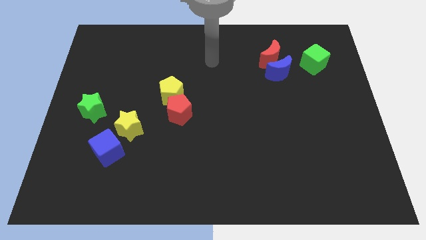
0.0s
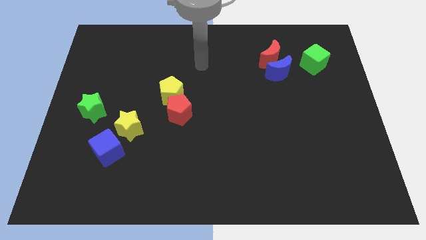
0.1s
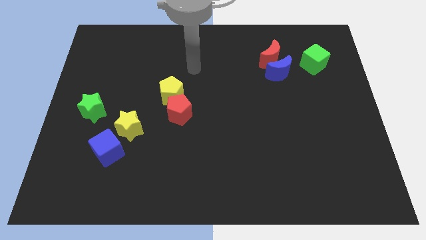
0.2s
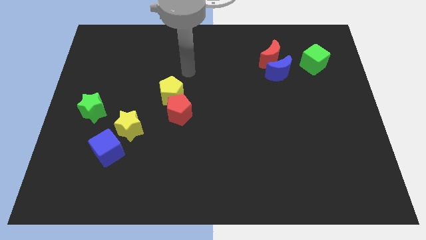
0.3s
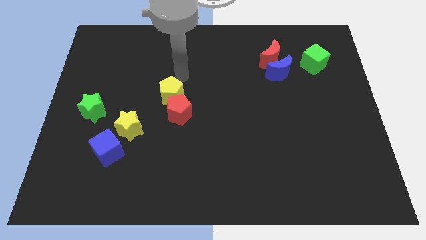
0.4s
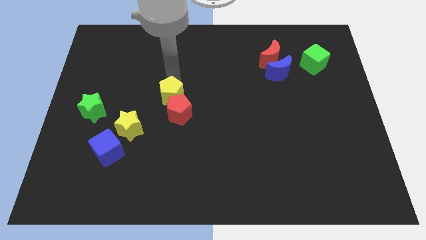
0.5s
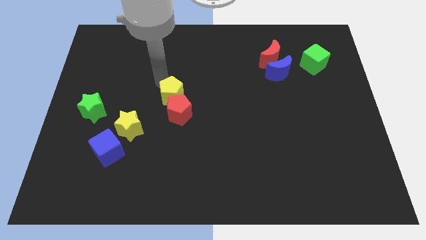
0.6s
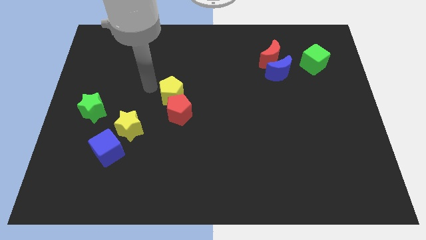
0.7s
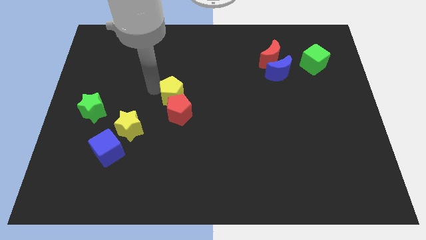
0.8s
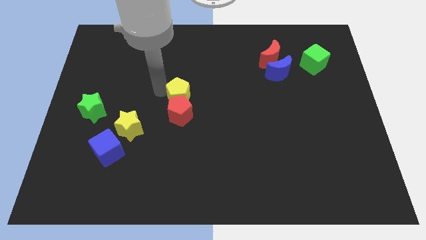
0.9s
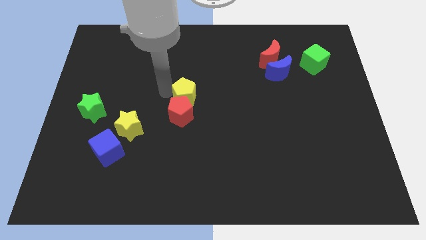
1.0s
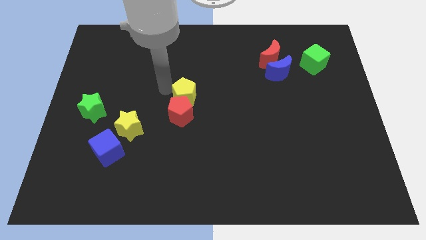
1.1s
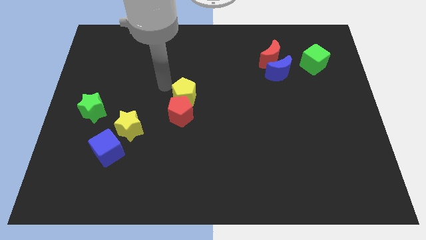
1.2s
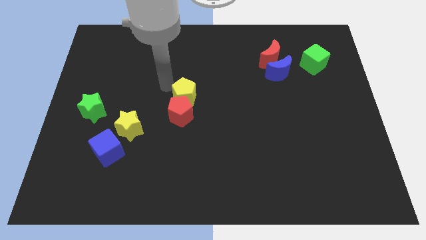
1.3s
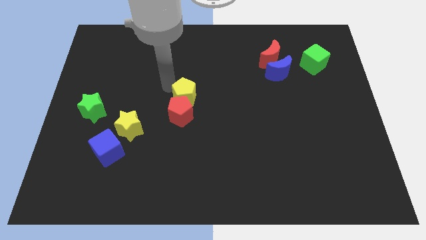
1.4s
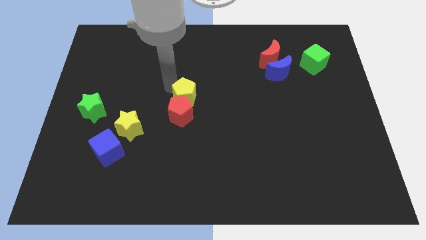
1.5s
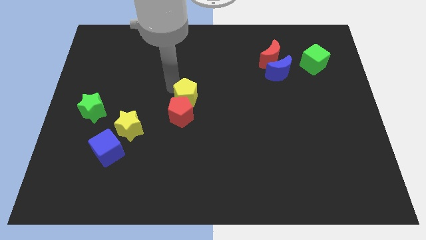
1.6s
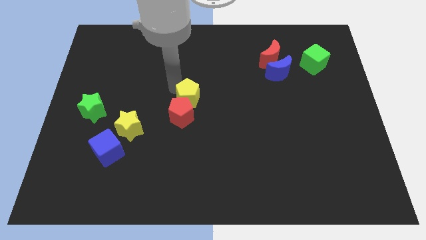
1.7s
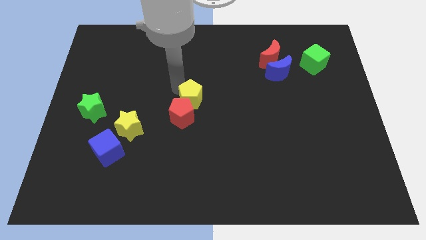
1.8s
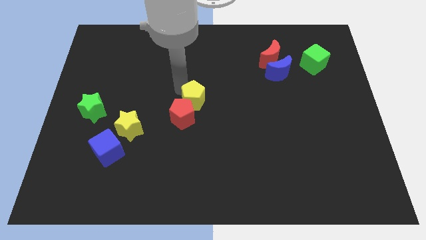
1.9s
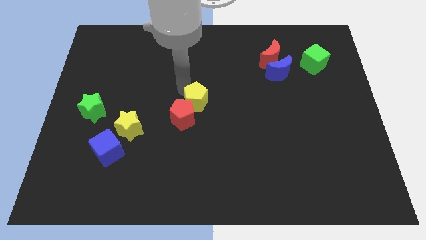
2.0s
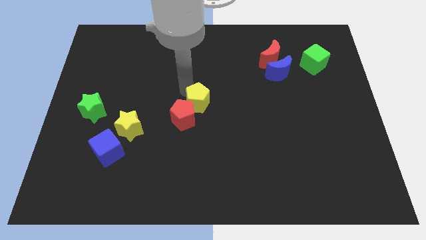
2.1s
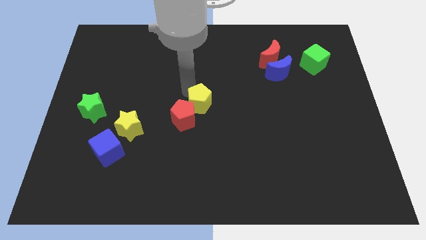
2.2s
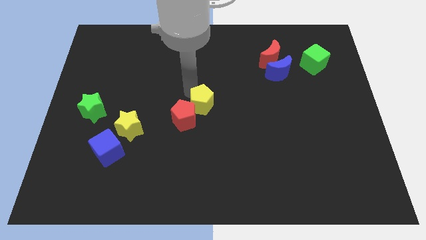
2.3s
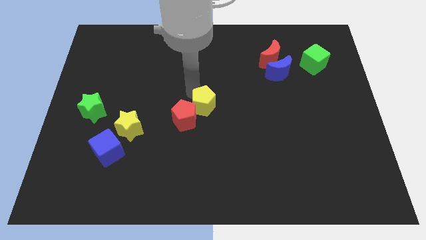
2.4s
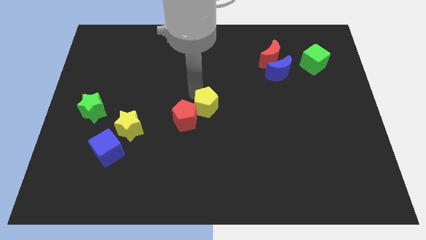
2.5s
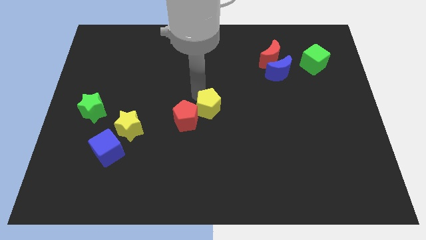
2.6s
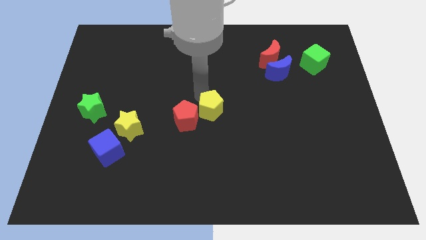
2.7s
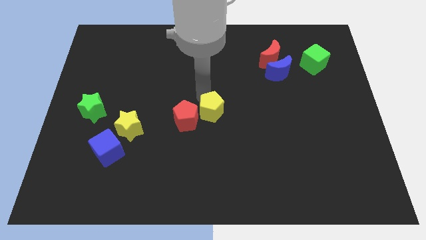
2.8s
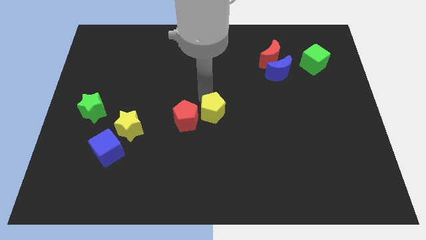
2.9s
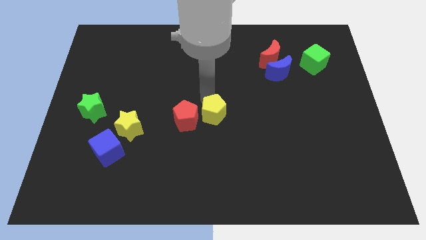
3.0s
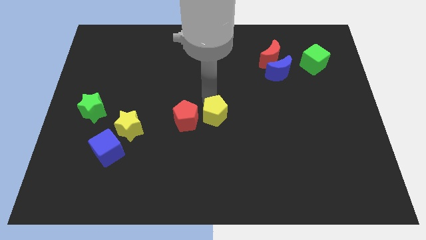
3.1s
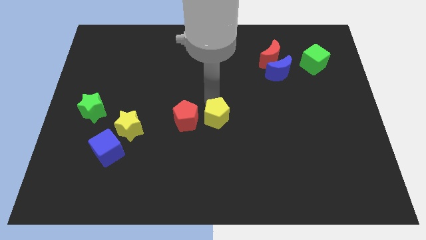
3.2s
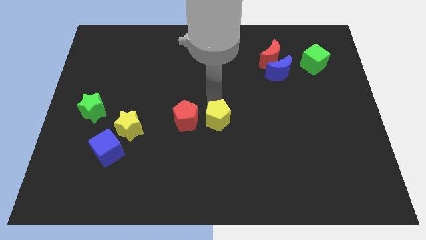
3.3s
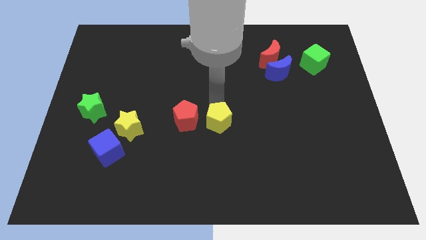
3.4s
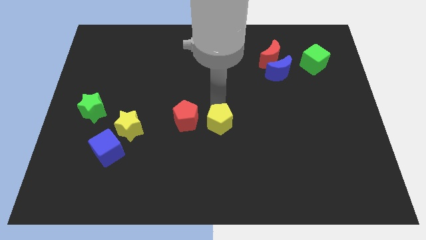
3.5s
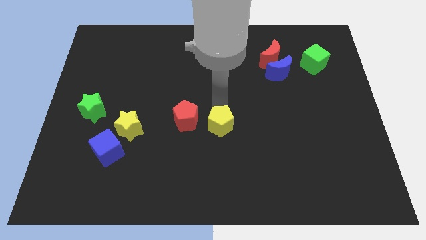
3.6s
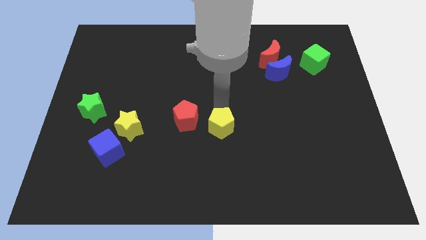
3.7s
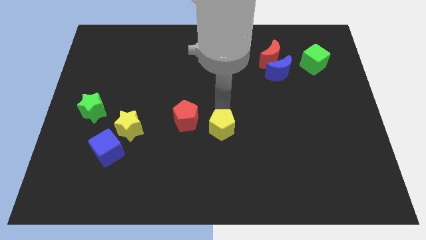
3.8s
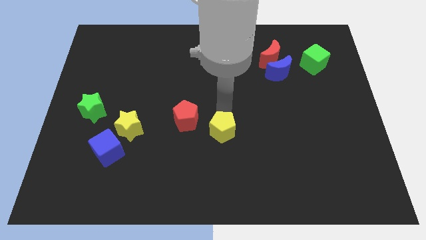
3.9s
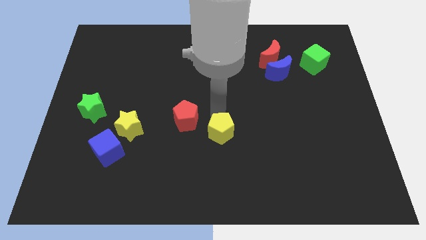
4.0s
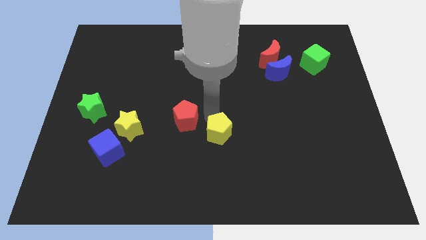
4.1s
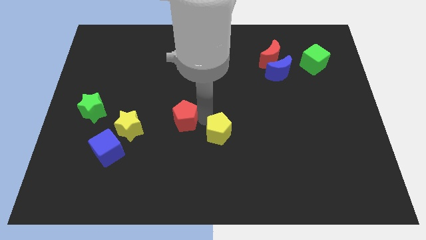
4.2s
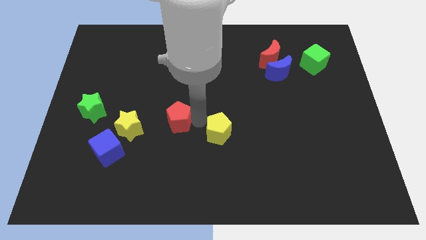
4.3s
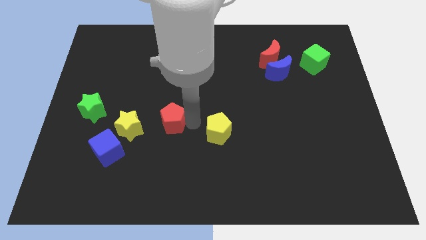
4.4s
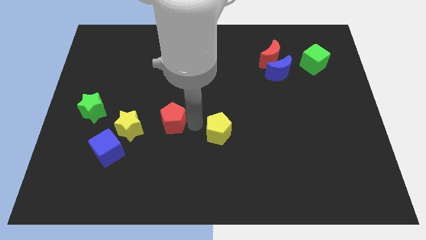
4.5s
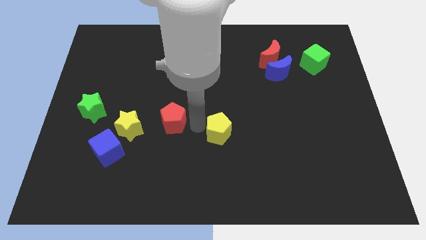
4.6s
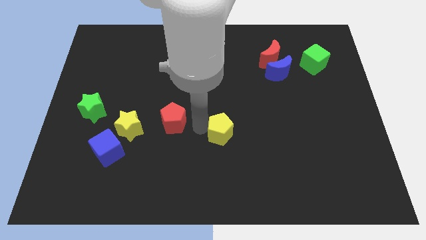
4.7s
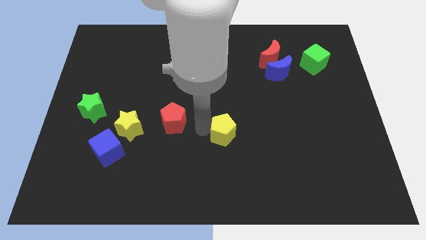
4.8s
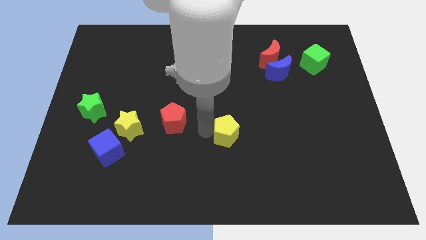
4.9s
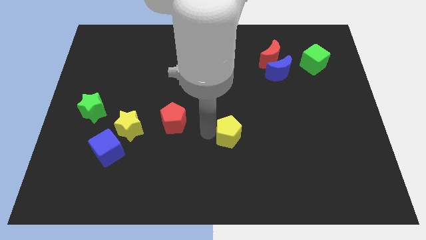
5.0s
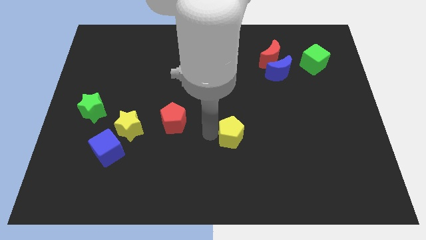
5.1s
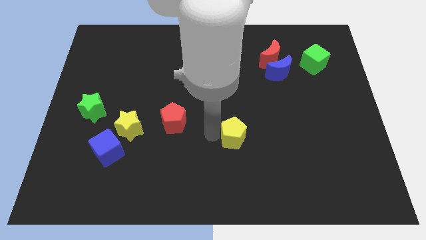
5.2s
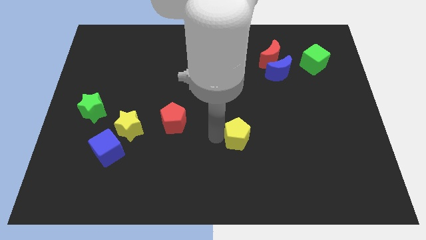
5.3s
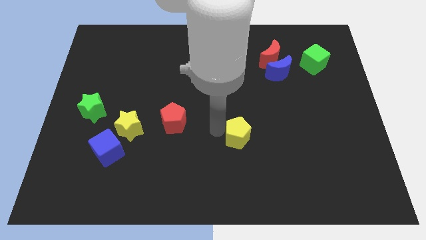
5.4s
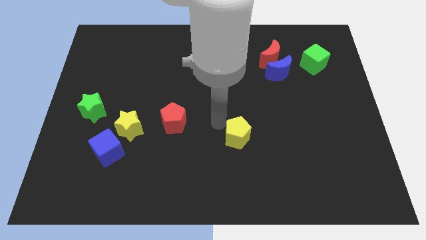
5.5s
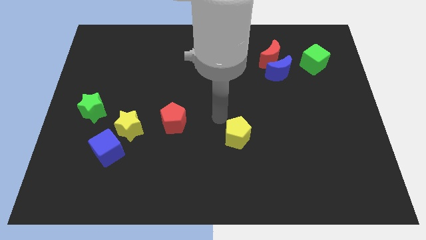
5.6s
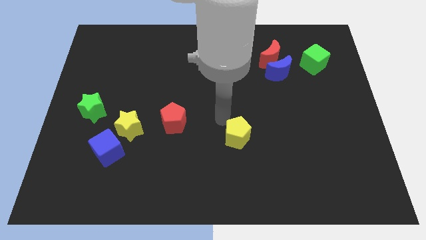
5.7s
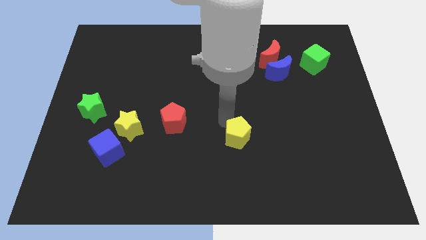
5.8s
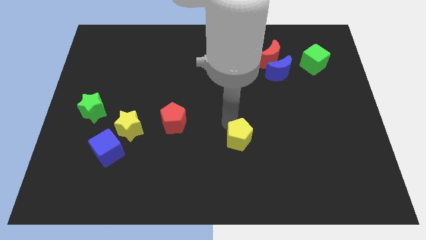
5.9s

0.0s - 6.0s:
slide the yellow pentagon diagonally downwards and to the right

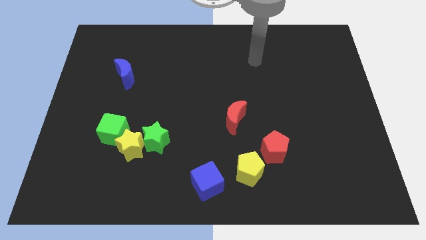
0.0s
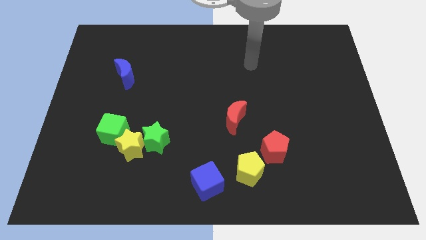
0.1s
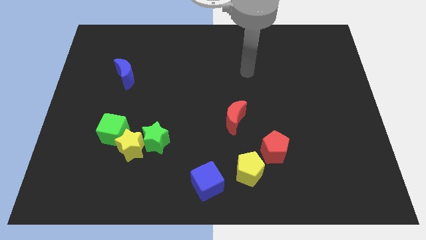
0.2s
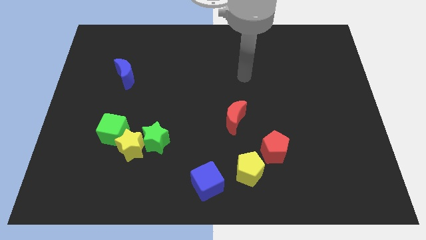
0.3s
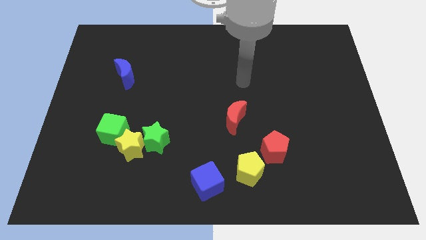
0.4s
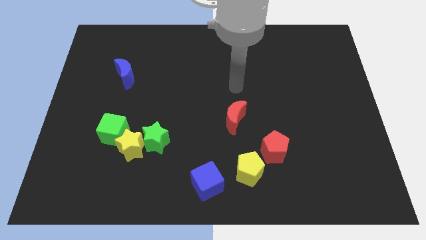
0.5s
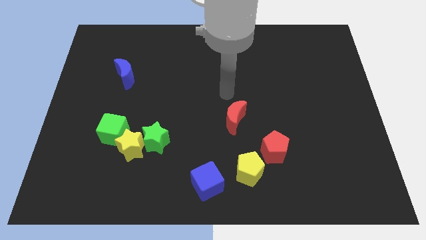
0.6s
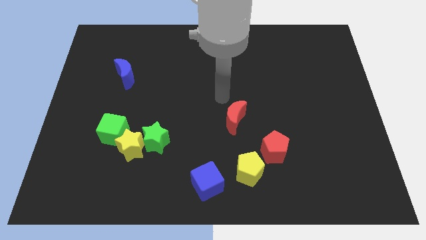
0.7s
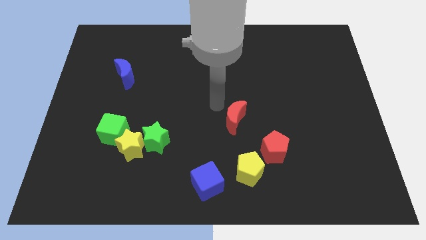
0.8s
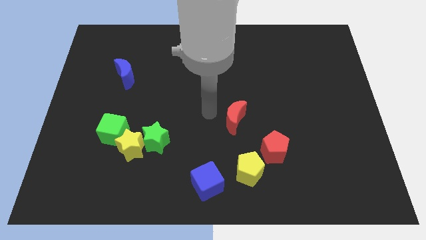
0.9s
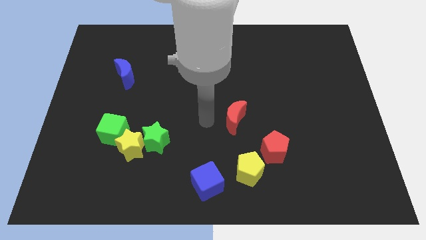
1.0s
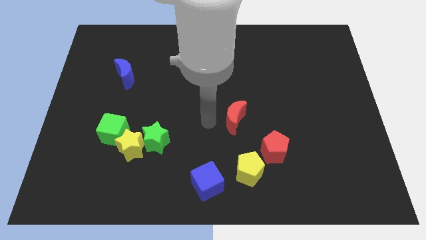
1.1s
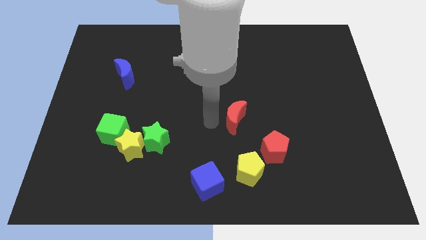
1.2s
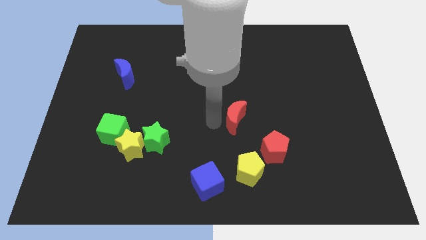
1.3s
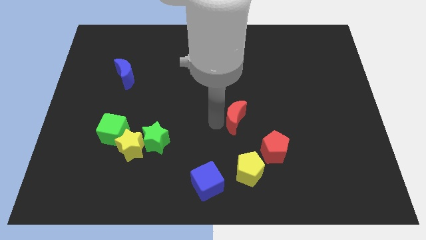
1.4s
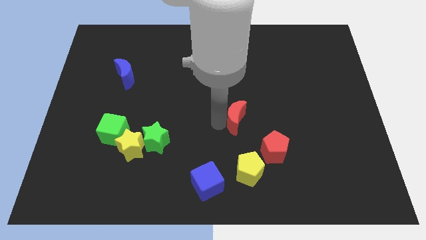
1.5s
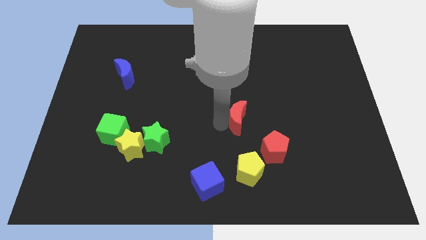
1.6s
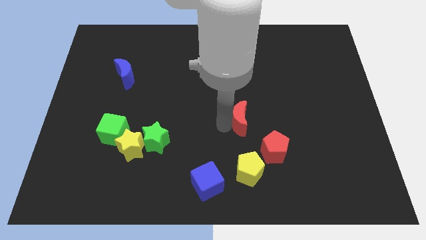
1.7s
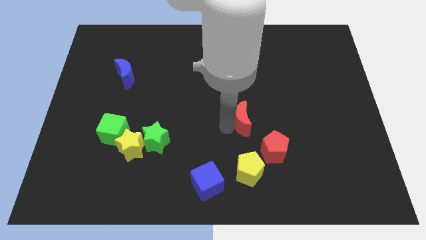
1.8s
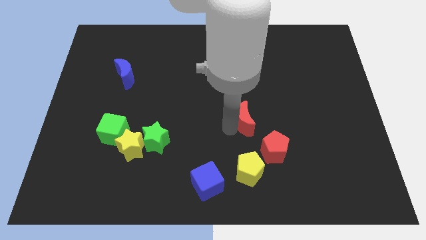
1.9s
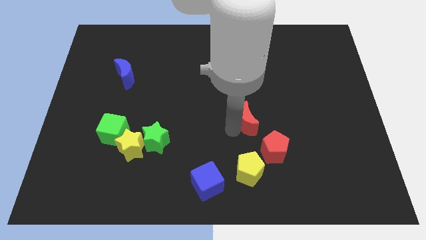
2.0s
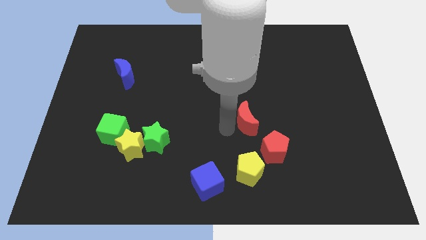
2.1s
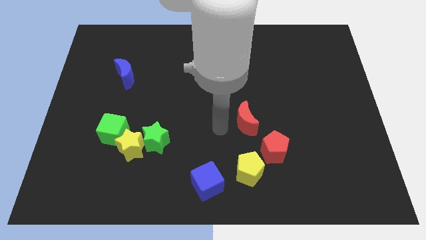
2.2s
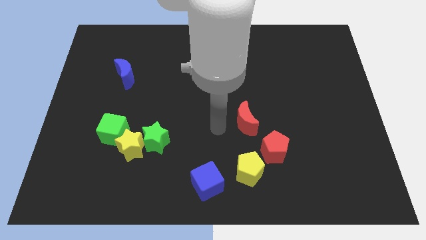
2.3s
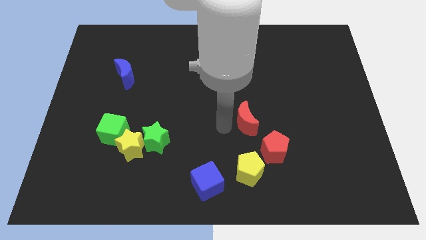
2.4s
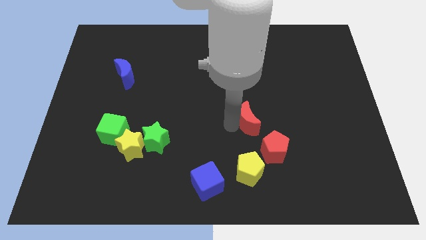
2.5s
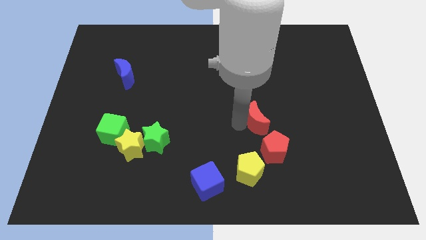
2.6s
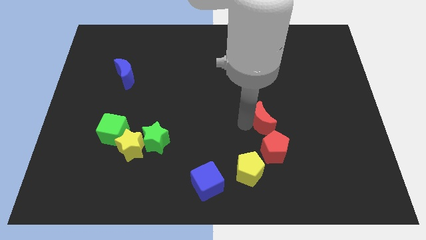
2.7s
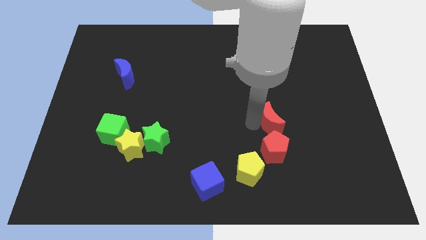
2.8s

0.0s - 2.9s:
slightly push the red moon right
